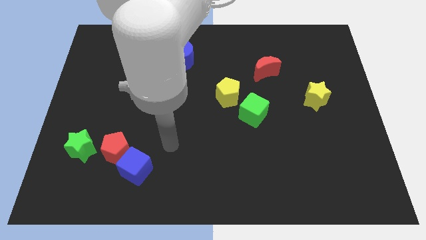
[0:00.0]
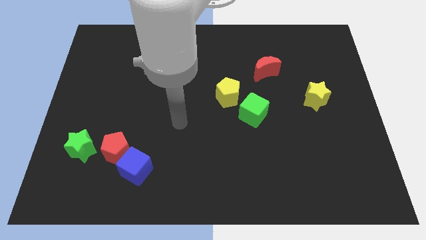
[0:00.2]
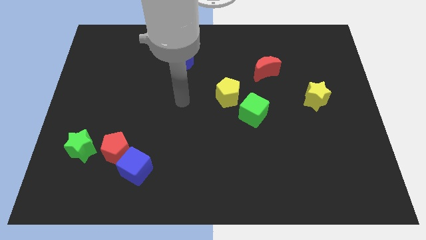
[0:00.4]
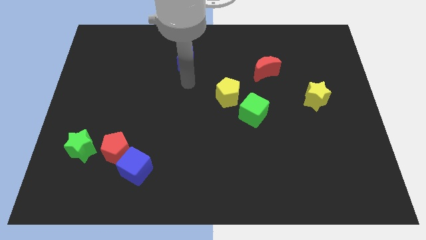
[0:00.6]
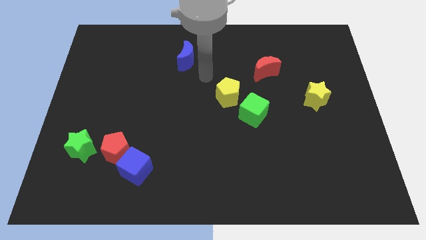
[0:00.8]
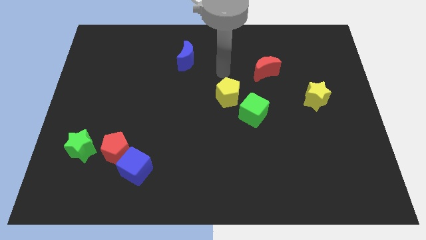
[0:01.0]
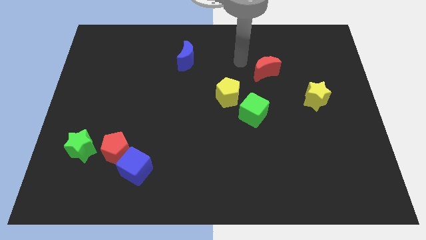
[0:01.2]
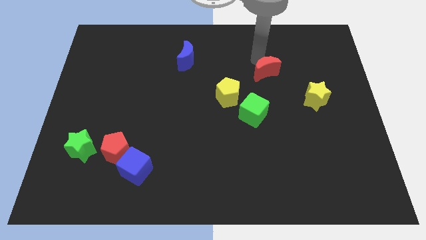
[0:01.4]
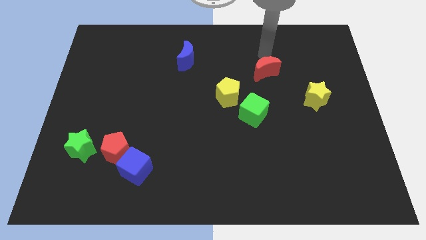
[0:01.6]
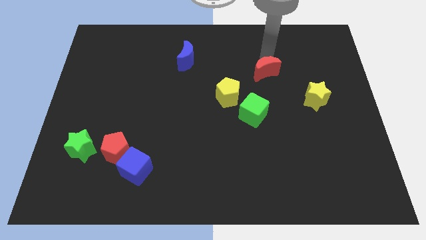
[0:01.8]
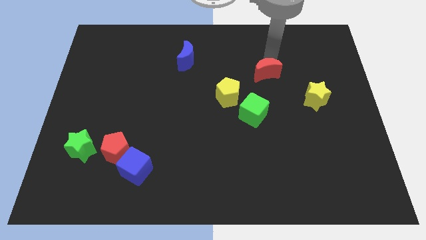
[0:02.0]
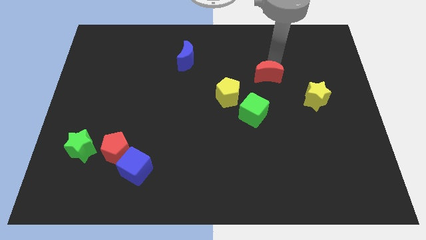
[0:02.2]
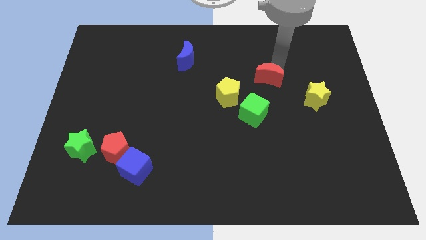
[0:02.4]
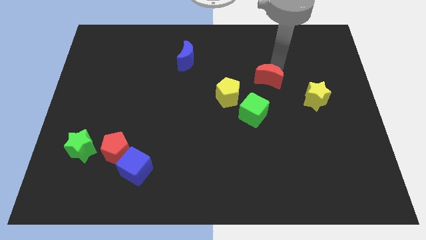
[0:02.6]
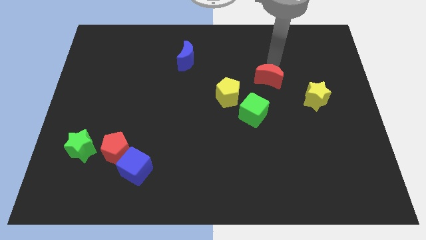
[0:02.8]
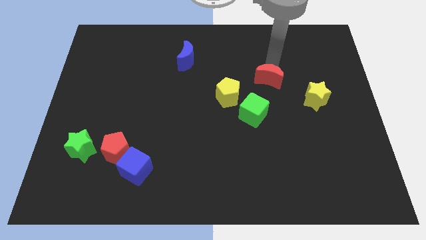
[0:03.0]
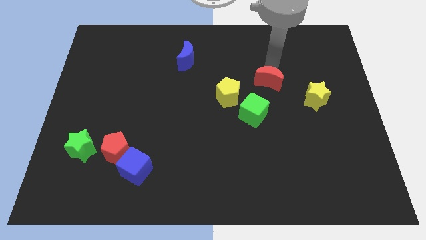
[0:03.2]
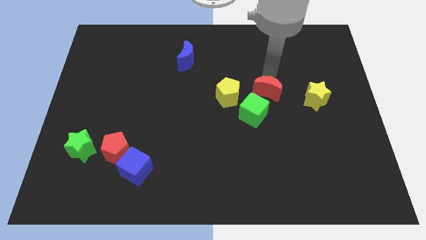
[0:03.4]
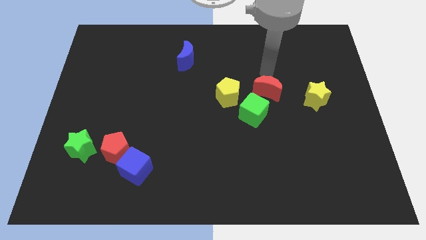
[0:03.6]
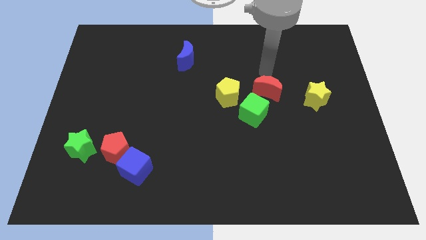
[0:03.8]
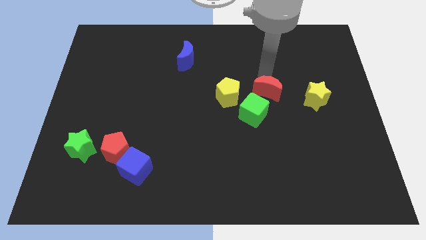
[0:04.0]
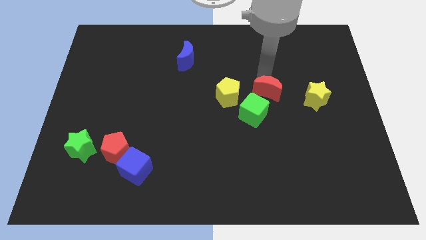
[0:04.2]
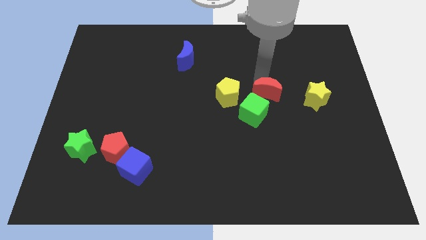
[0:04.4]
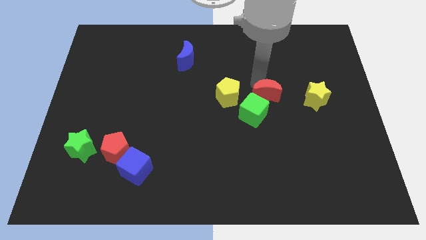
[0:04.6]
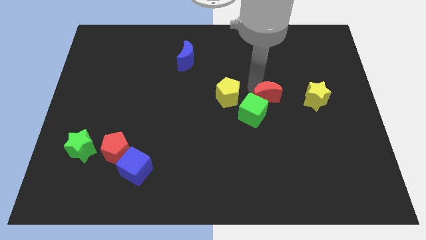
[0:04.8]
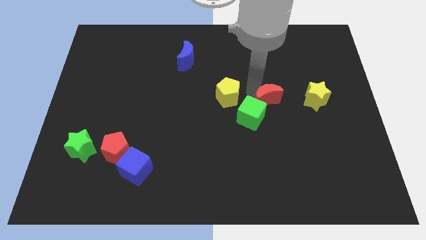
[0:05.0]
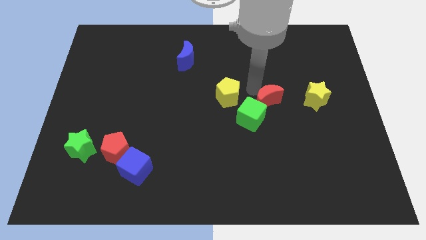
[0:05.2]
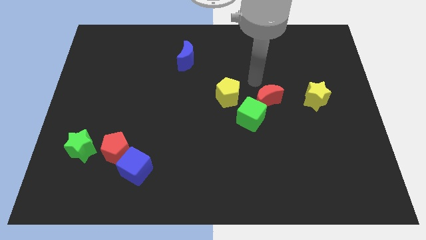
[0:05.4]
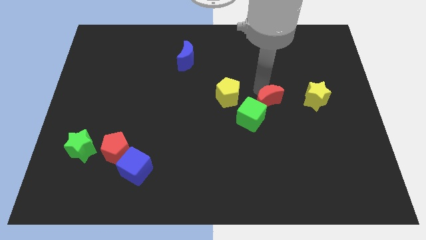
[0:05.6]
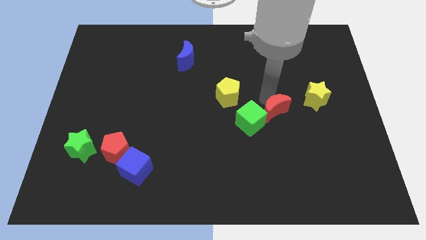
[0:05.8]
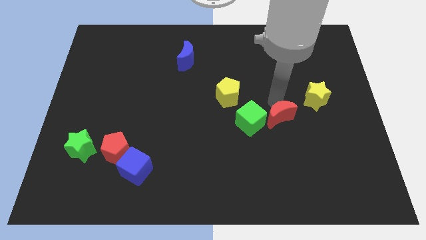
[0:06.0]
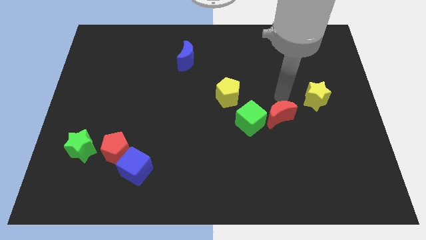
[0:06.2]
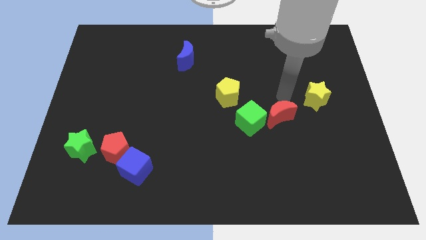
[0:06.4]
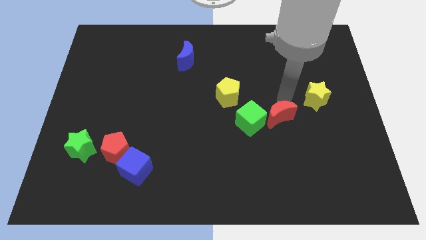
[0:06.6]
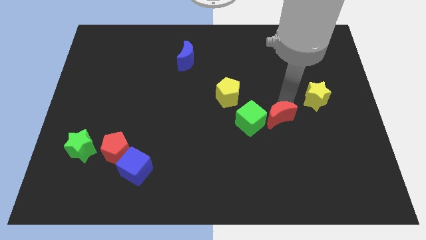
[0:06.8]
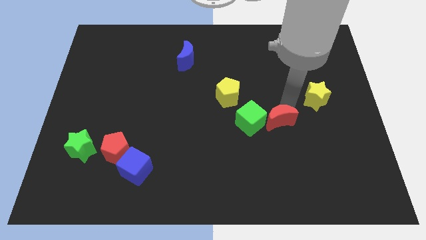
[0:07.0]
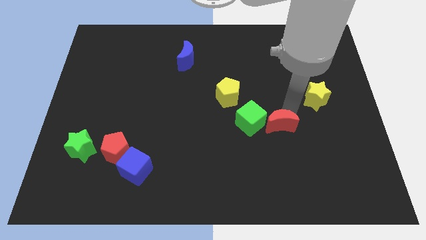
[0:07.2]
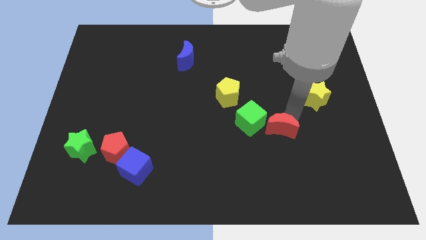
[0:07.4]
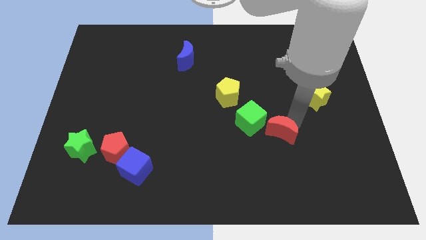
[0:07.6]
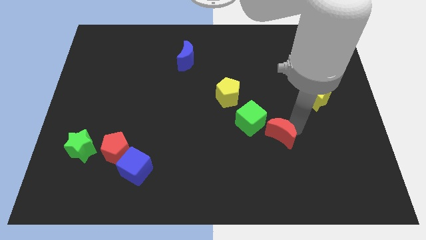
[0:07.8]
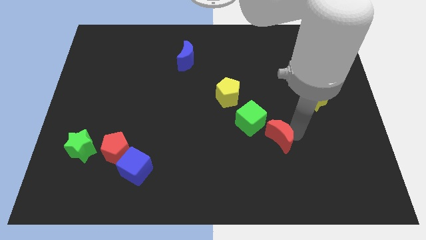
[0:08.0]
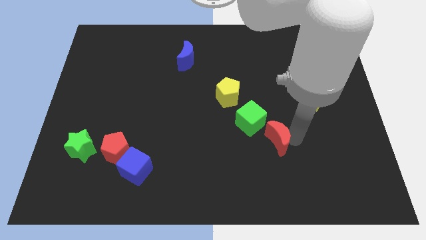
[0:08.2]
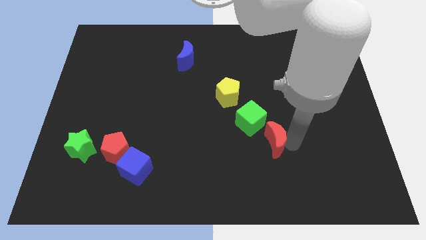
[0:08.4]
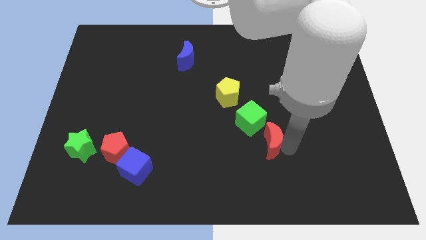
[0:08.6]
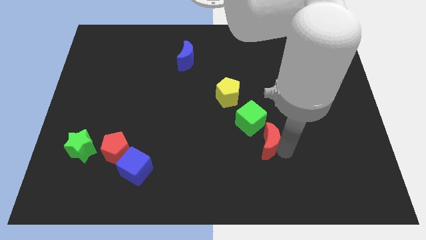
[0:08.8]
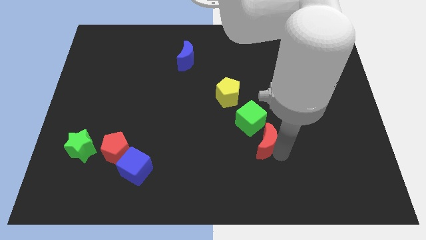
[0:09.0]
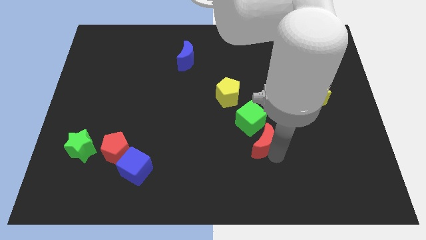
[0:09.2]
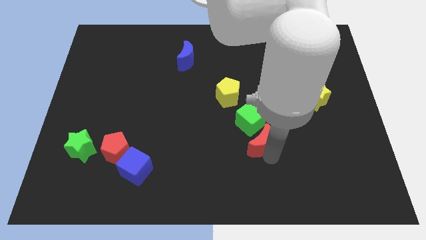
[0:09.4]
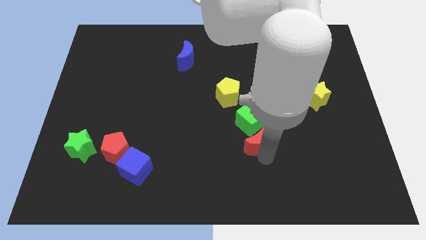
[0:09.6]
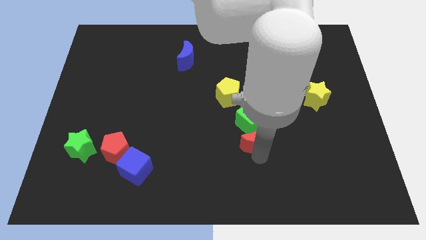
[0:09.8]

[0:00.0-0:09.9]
push the red moon to the bottom left side of the green cube

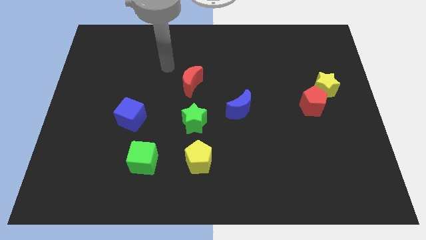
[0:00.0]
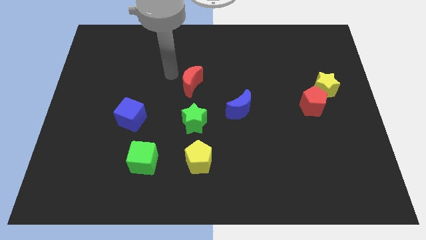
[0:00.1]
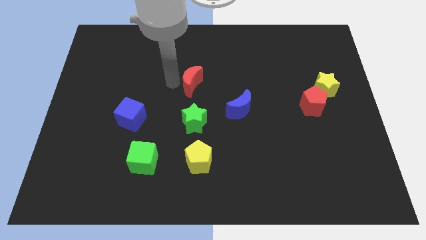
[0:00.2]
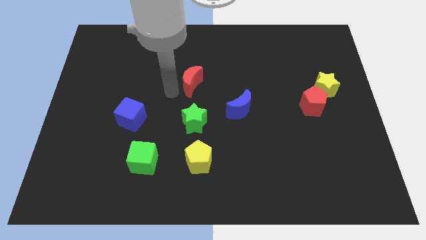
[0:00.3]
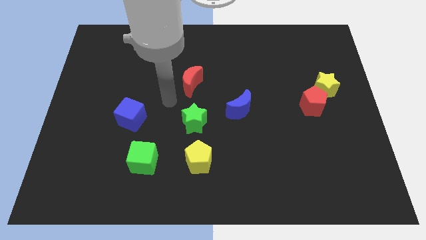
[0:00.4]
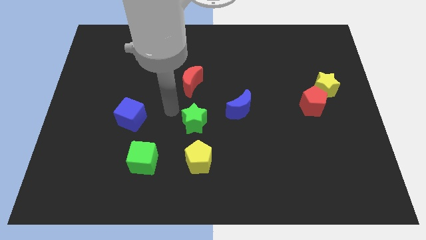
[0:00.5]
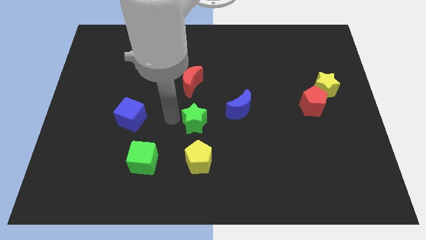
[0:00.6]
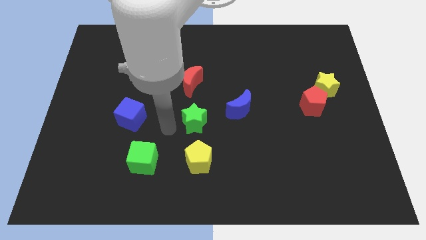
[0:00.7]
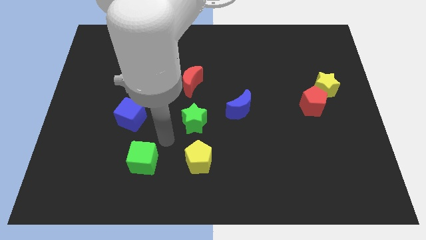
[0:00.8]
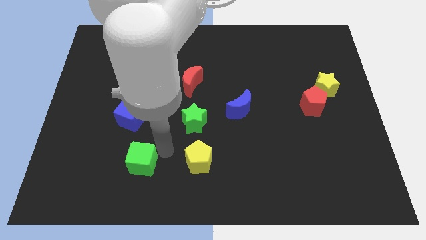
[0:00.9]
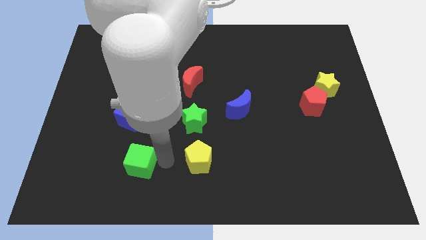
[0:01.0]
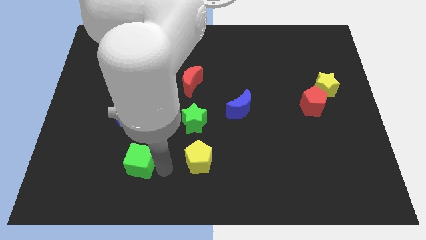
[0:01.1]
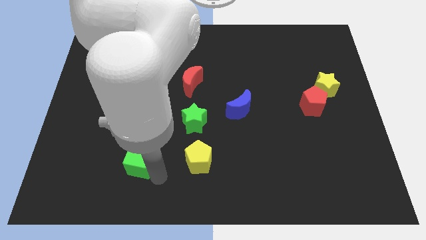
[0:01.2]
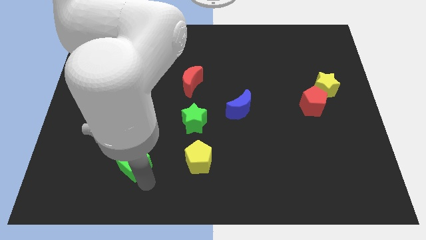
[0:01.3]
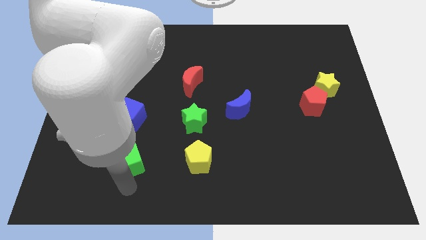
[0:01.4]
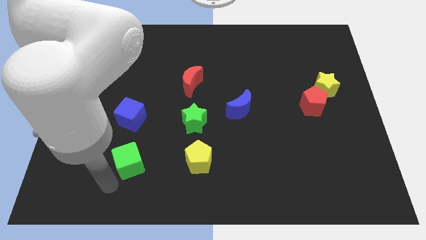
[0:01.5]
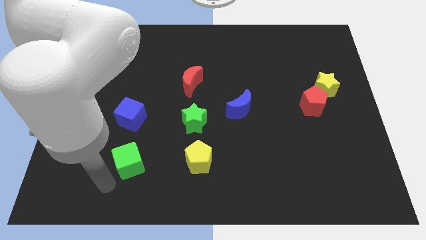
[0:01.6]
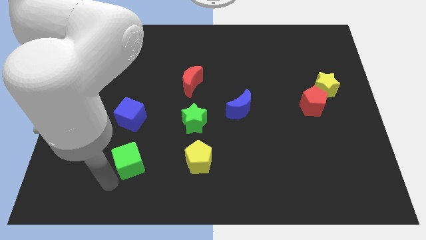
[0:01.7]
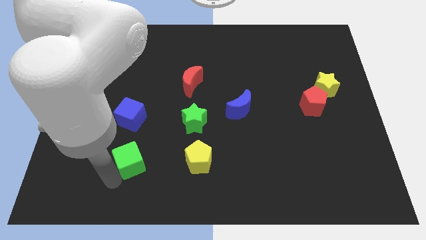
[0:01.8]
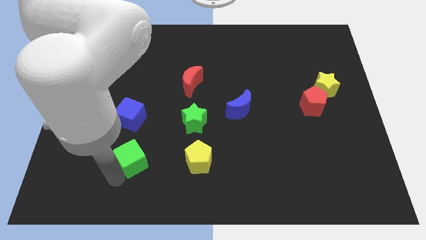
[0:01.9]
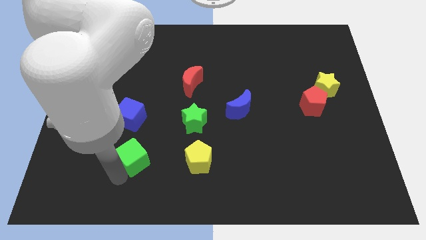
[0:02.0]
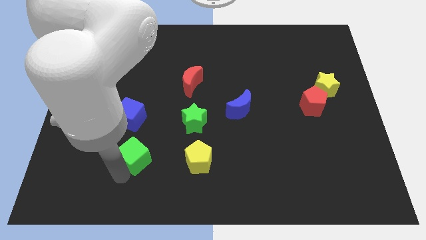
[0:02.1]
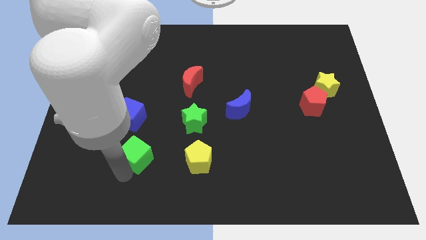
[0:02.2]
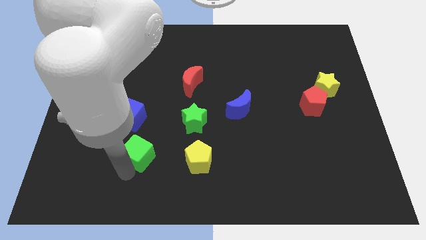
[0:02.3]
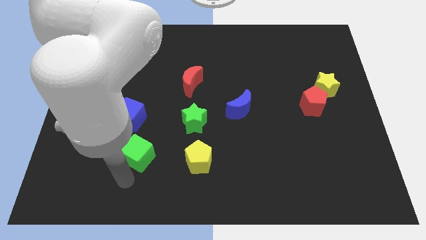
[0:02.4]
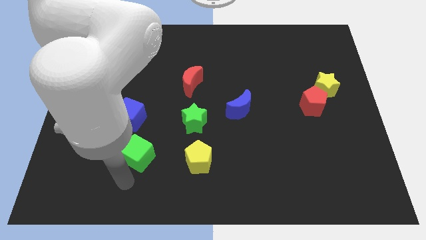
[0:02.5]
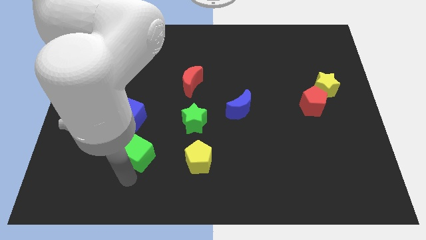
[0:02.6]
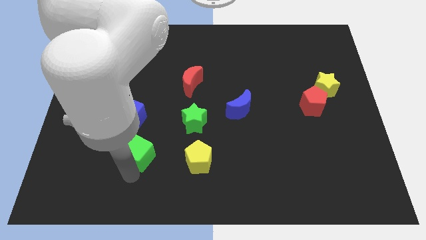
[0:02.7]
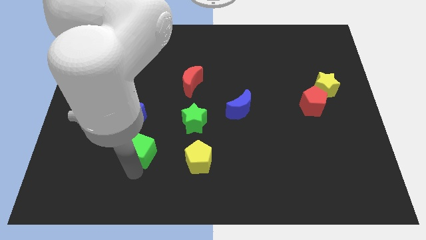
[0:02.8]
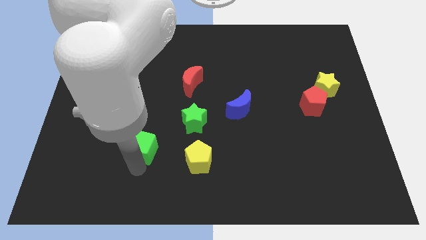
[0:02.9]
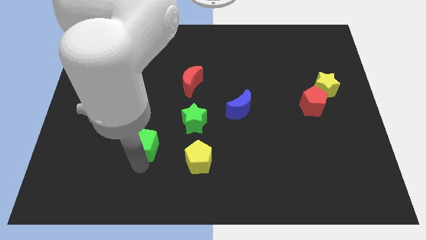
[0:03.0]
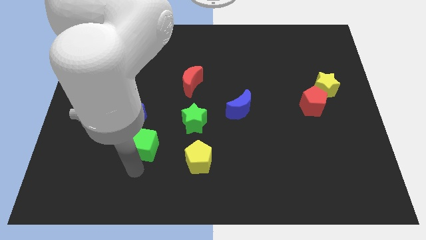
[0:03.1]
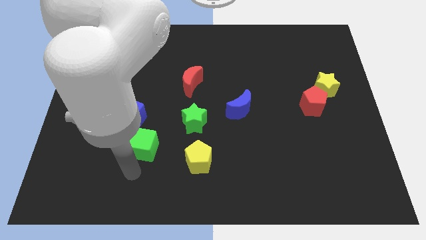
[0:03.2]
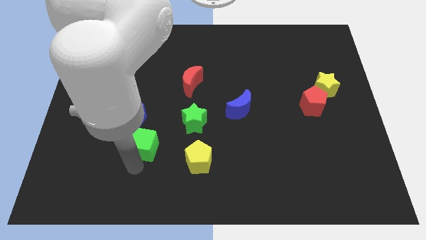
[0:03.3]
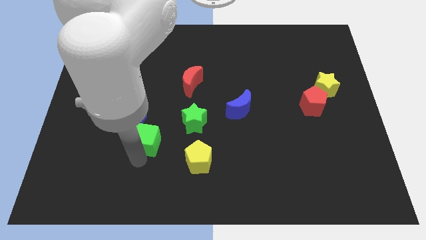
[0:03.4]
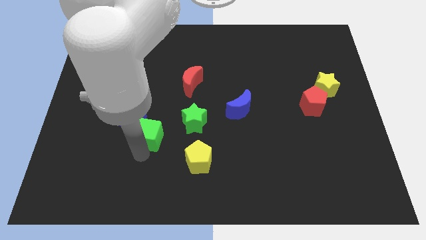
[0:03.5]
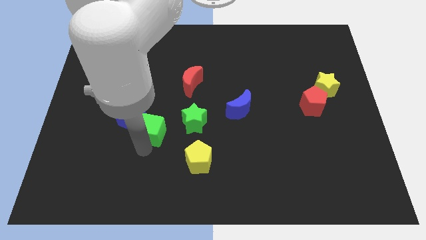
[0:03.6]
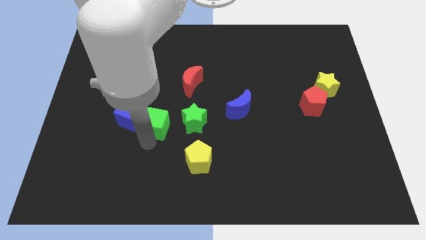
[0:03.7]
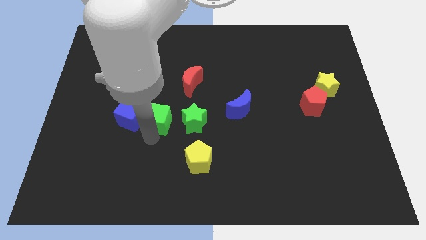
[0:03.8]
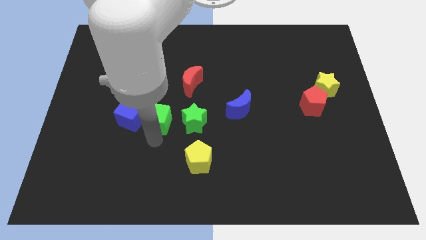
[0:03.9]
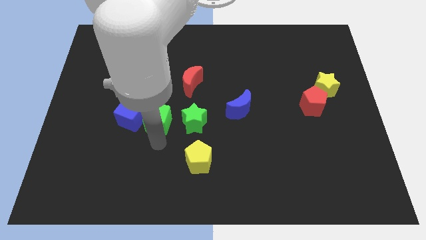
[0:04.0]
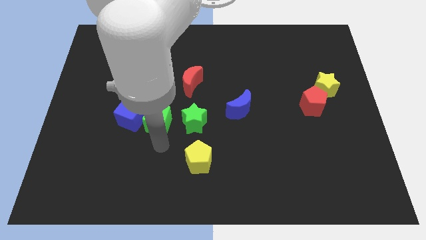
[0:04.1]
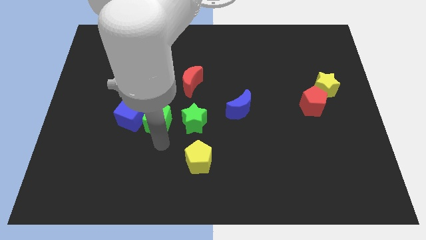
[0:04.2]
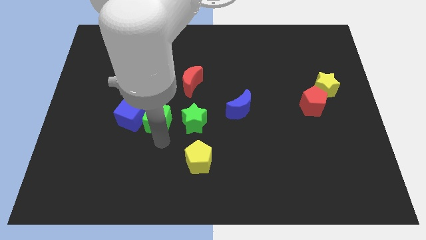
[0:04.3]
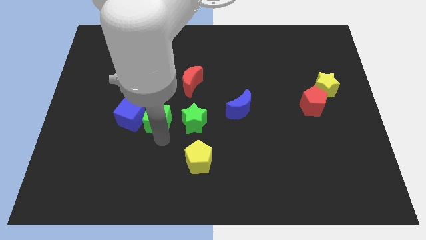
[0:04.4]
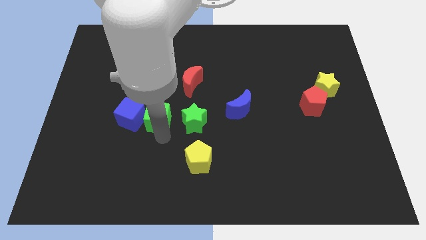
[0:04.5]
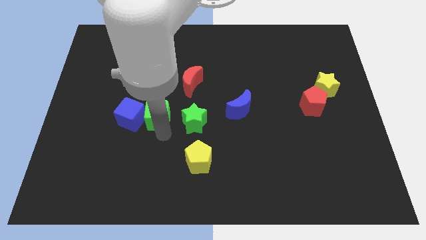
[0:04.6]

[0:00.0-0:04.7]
slide the green cube to the bottom left side of the red moon
